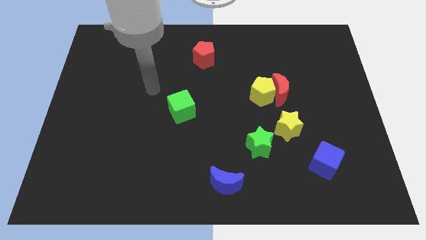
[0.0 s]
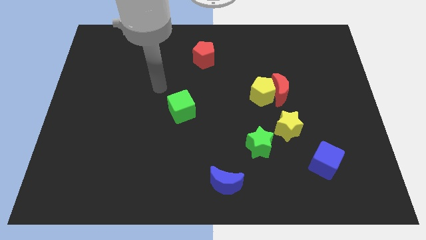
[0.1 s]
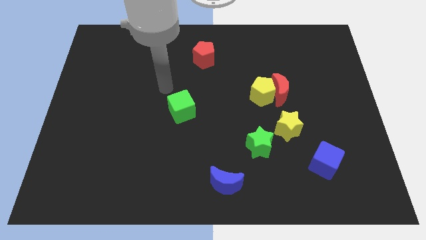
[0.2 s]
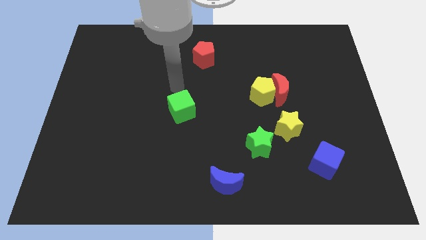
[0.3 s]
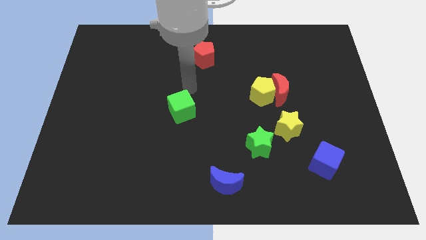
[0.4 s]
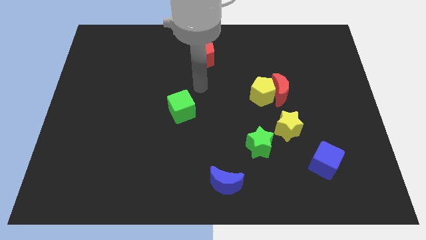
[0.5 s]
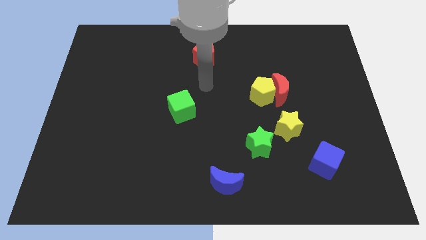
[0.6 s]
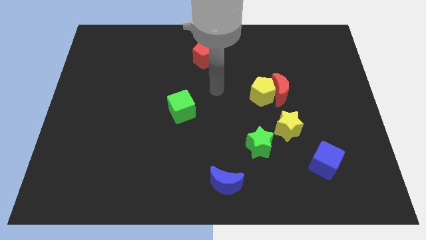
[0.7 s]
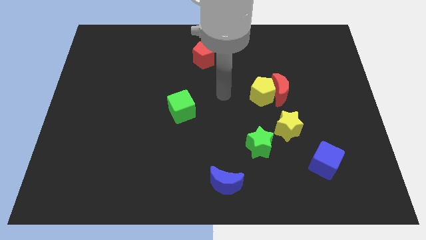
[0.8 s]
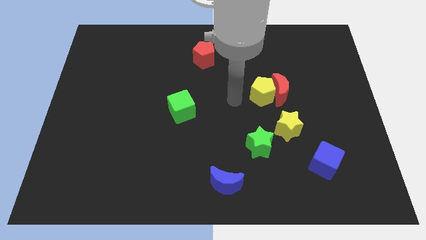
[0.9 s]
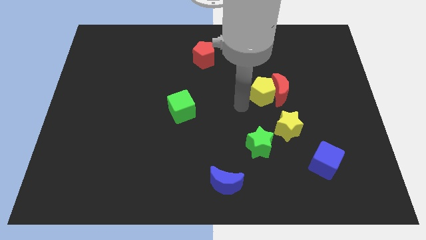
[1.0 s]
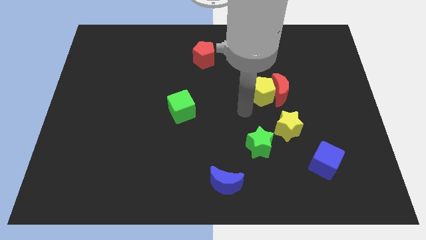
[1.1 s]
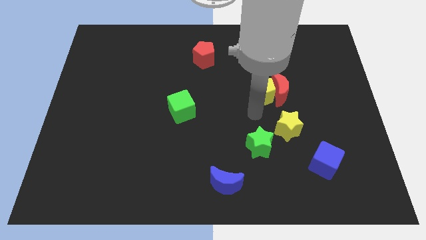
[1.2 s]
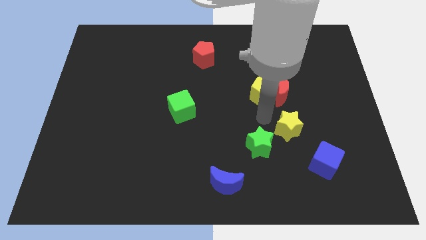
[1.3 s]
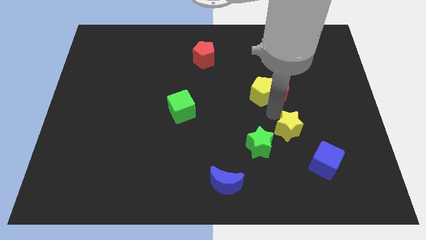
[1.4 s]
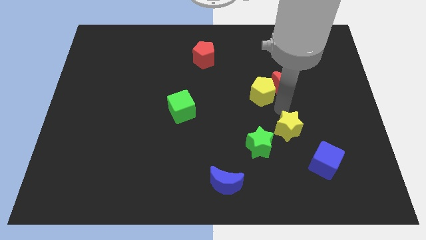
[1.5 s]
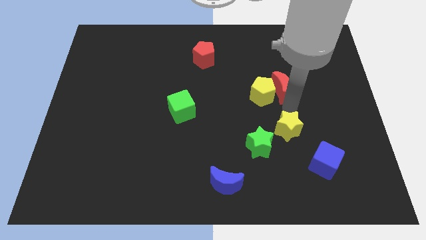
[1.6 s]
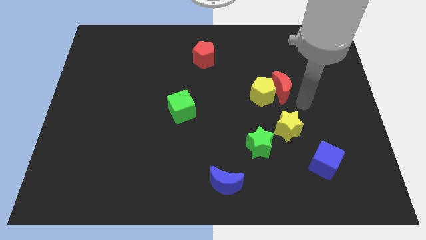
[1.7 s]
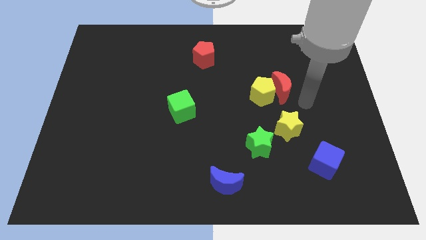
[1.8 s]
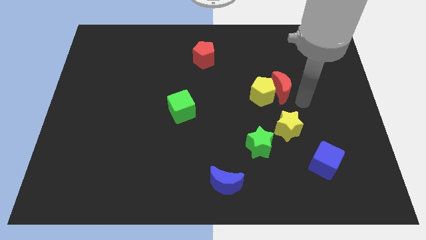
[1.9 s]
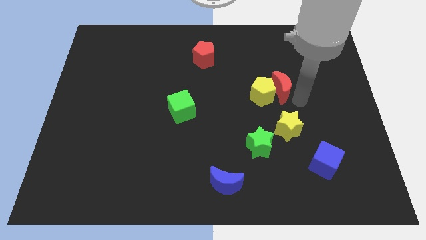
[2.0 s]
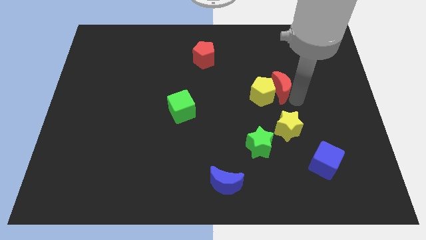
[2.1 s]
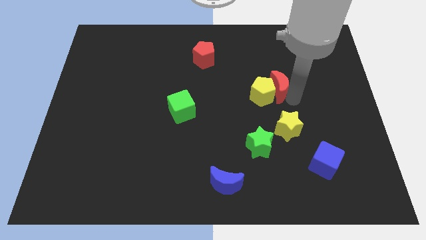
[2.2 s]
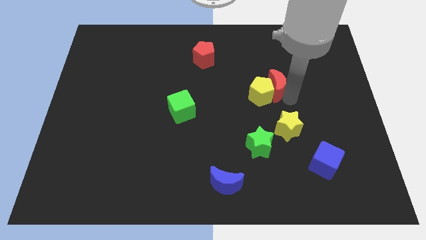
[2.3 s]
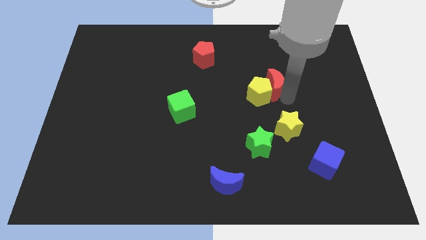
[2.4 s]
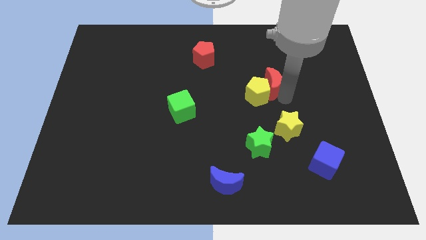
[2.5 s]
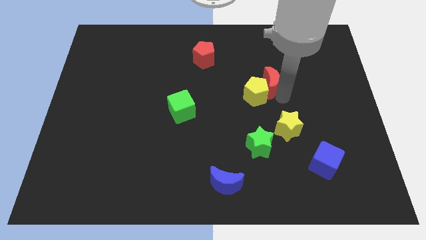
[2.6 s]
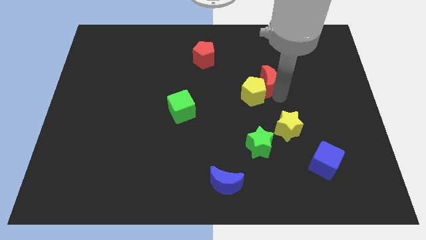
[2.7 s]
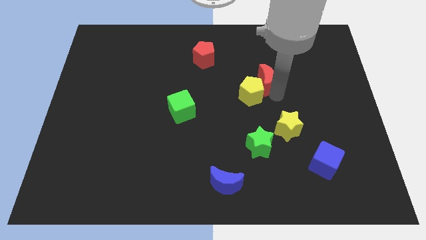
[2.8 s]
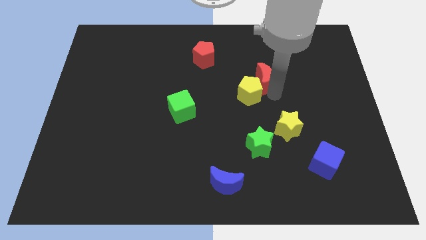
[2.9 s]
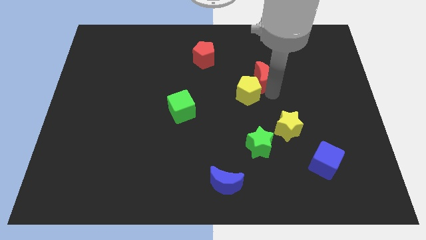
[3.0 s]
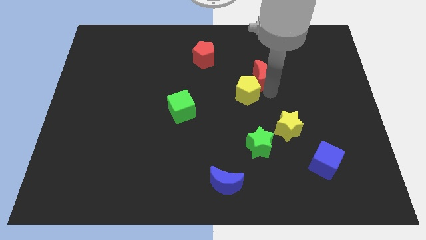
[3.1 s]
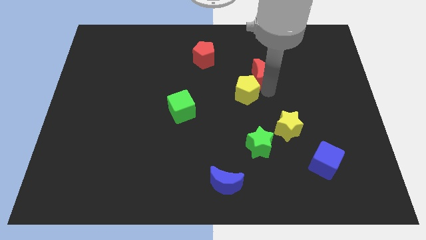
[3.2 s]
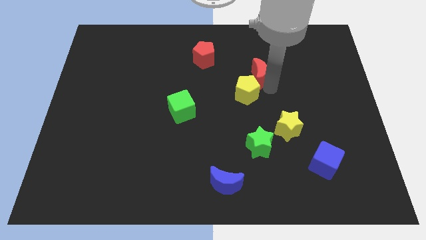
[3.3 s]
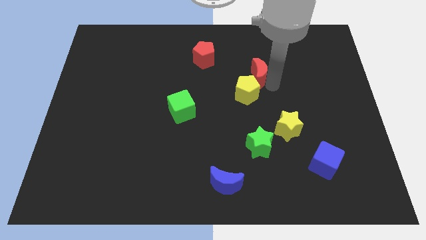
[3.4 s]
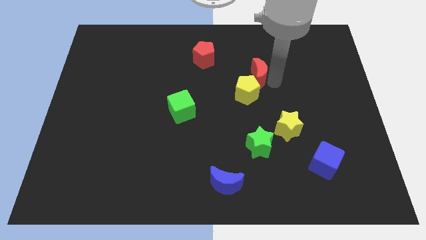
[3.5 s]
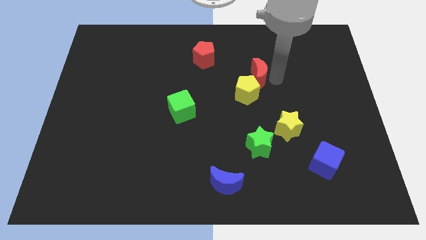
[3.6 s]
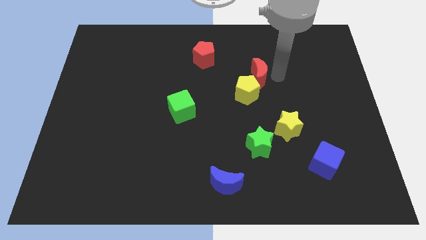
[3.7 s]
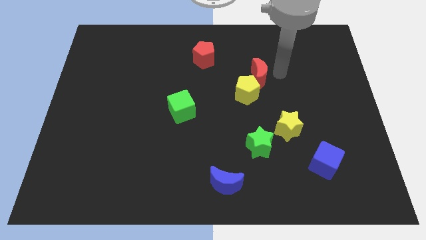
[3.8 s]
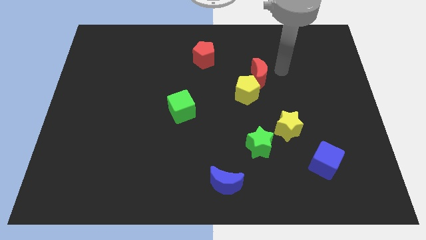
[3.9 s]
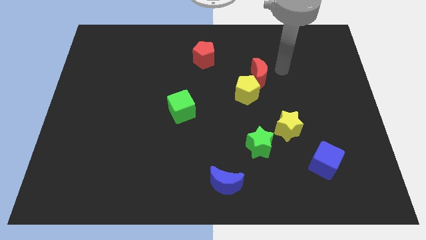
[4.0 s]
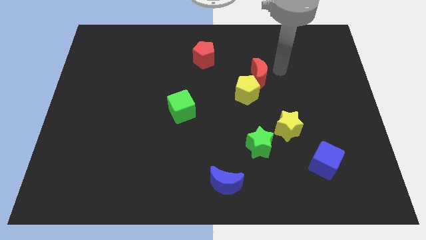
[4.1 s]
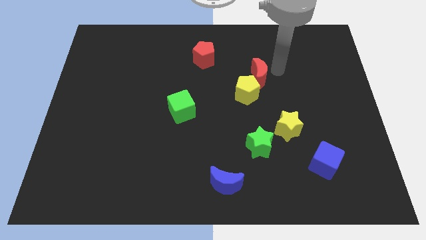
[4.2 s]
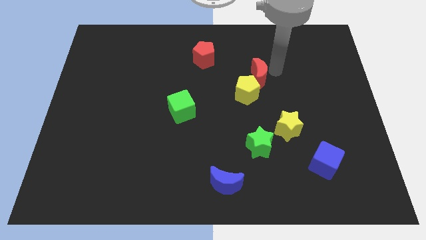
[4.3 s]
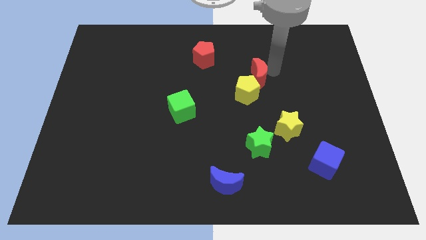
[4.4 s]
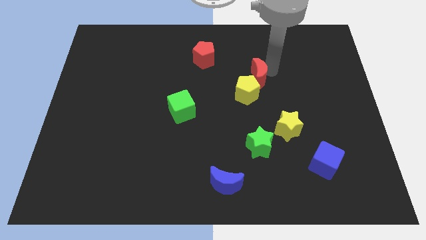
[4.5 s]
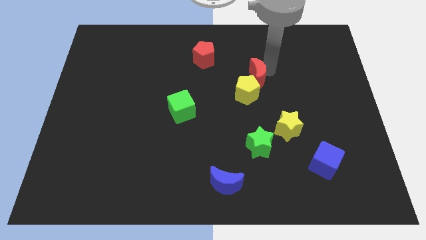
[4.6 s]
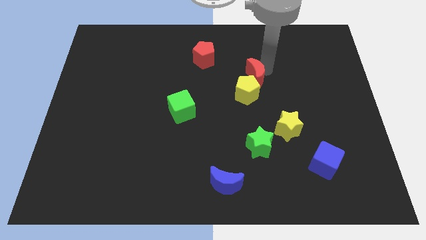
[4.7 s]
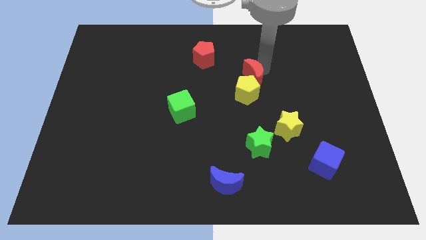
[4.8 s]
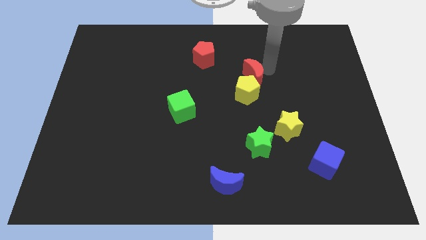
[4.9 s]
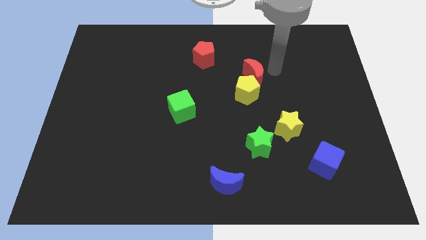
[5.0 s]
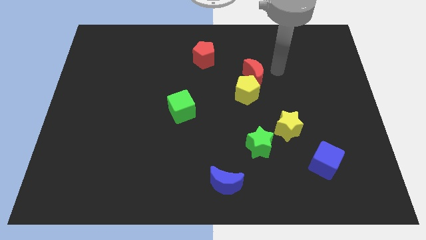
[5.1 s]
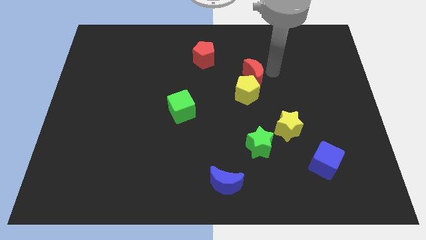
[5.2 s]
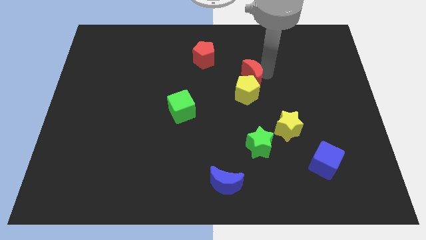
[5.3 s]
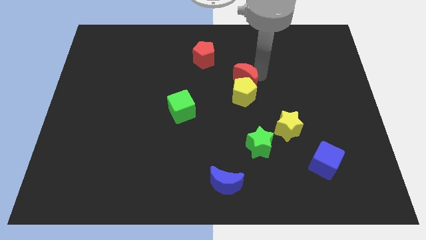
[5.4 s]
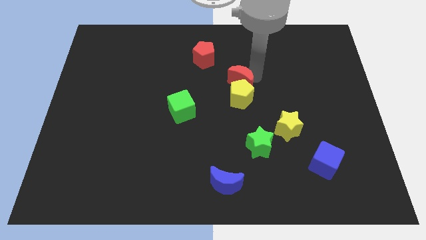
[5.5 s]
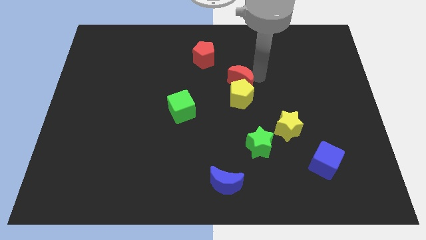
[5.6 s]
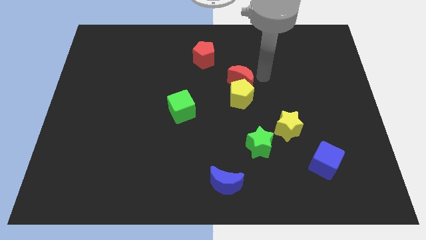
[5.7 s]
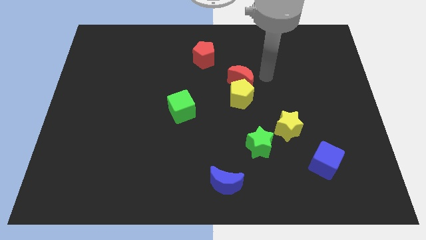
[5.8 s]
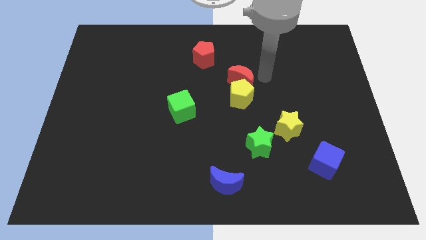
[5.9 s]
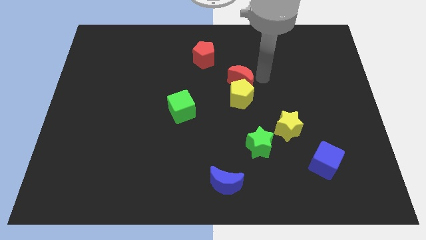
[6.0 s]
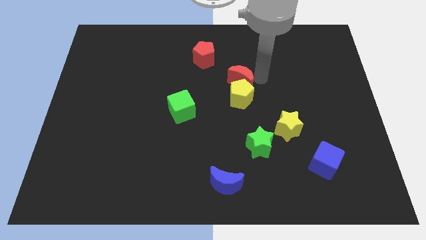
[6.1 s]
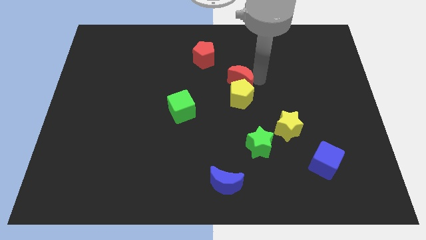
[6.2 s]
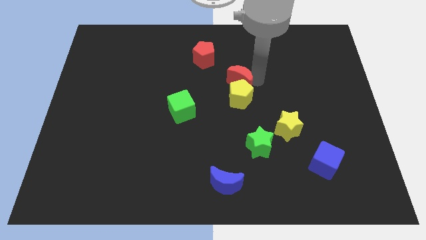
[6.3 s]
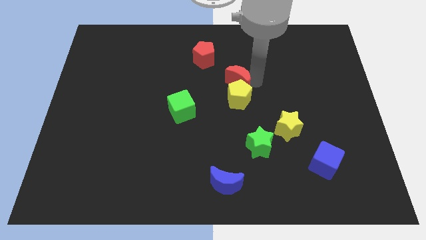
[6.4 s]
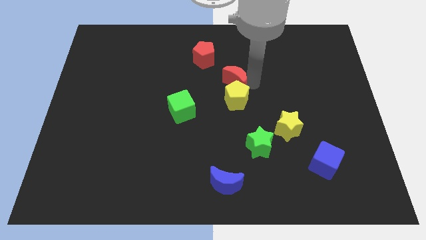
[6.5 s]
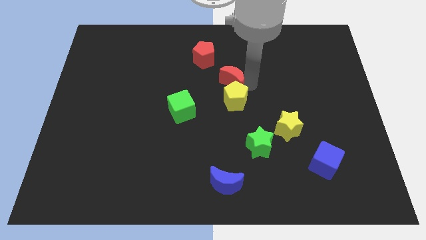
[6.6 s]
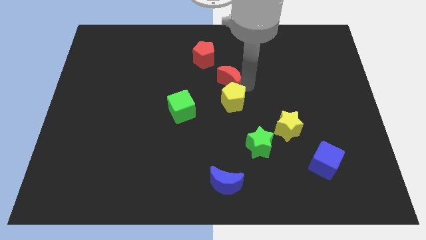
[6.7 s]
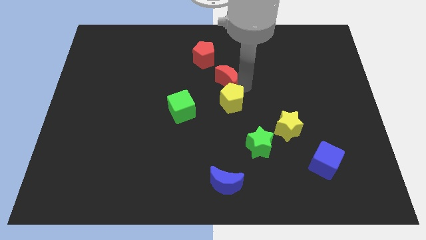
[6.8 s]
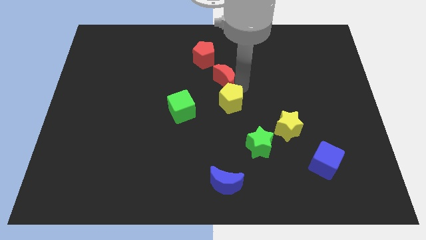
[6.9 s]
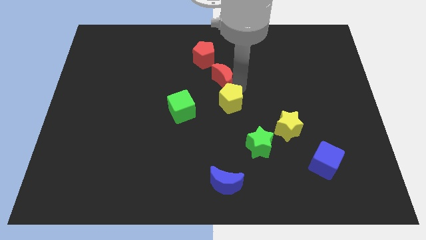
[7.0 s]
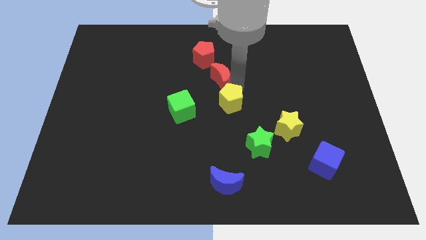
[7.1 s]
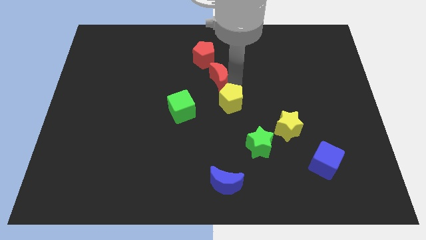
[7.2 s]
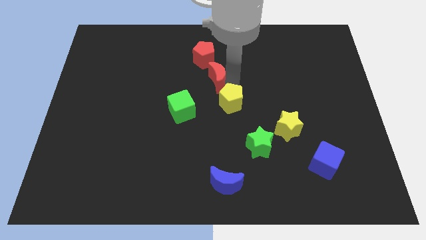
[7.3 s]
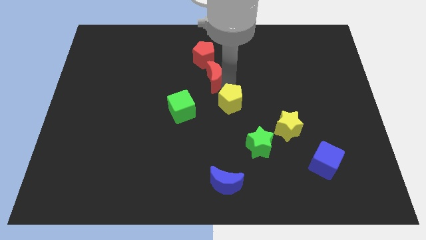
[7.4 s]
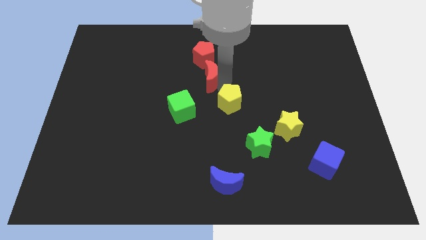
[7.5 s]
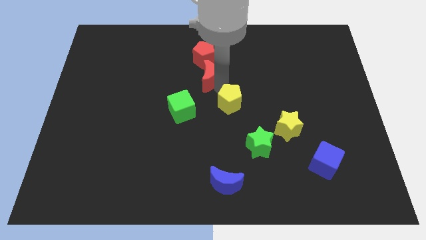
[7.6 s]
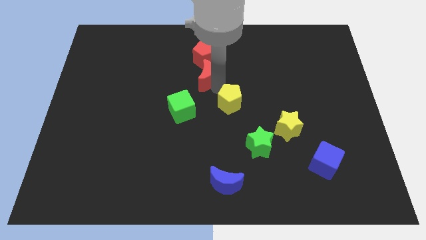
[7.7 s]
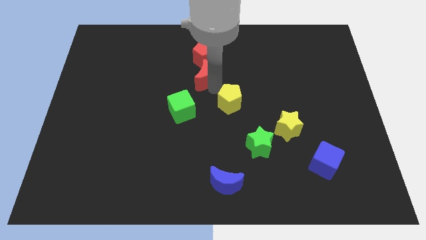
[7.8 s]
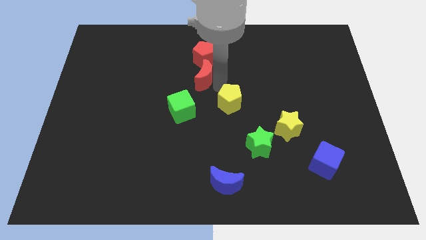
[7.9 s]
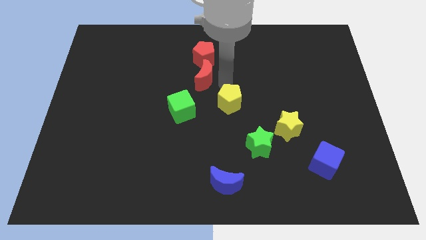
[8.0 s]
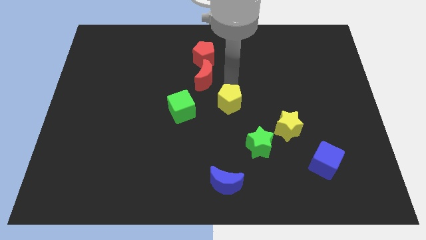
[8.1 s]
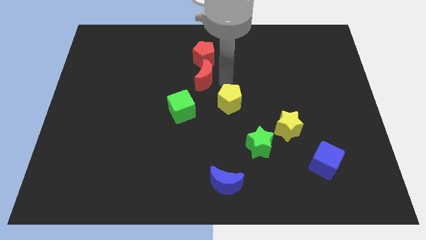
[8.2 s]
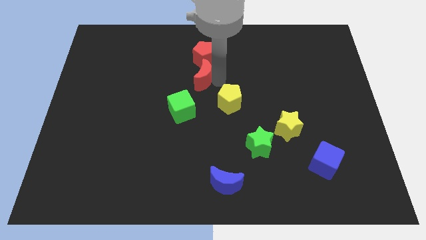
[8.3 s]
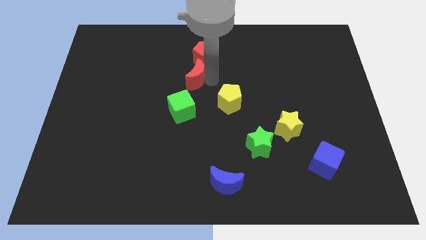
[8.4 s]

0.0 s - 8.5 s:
slide the red moon to the top of the green cube
